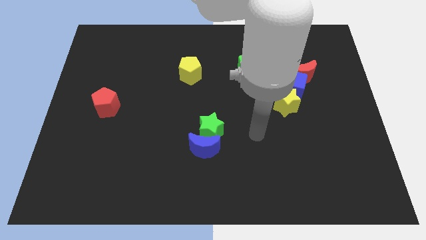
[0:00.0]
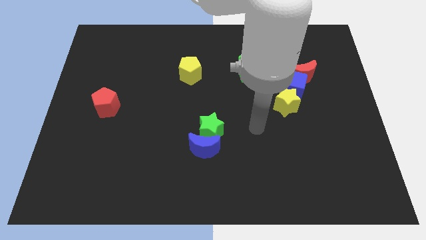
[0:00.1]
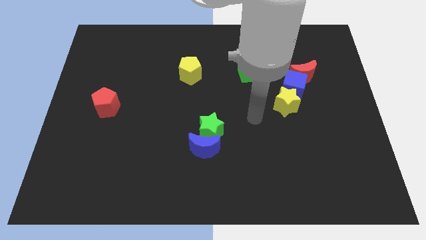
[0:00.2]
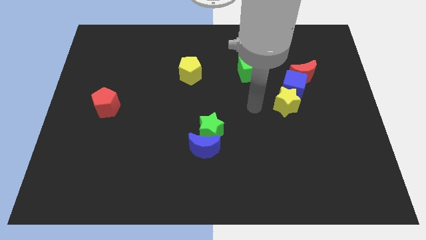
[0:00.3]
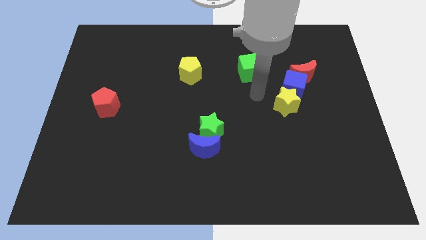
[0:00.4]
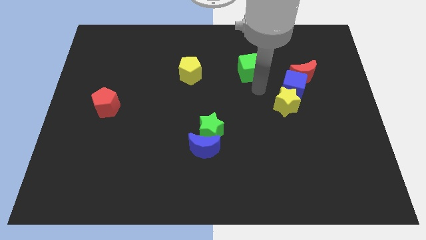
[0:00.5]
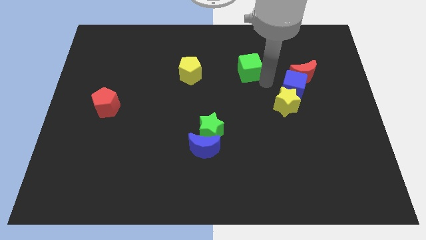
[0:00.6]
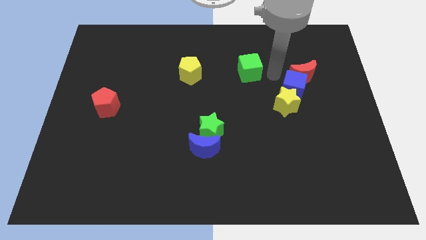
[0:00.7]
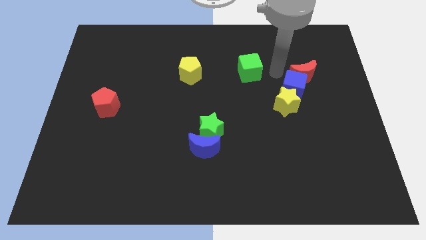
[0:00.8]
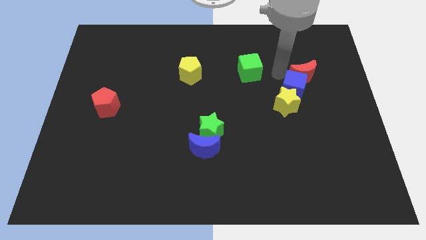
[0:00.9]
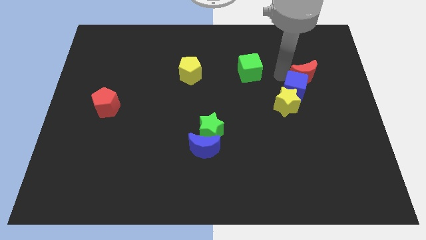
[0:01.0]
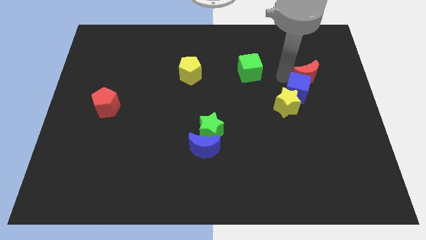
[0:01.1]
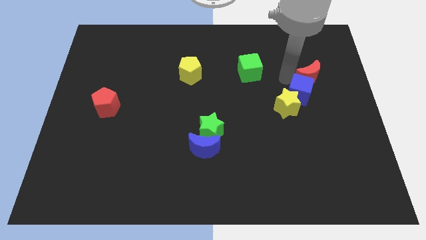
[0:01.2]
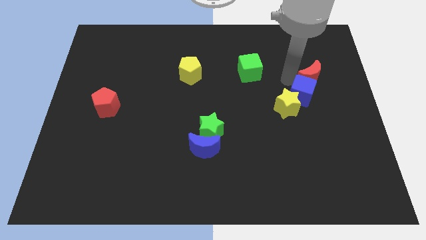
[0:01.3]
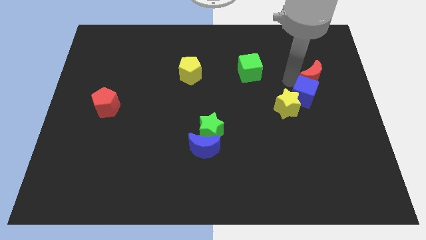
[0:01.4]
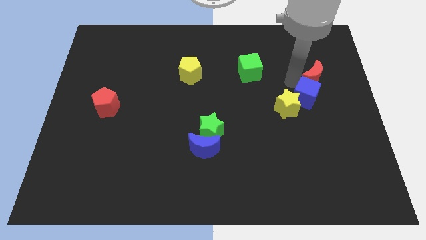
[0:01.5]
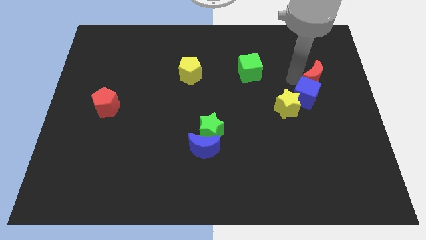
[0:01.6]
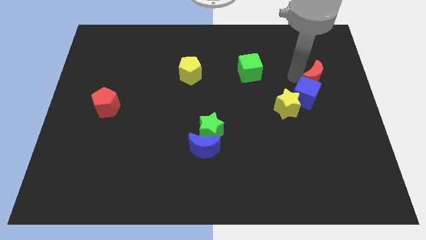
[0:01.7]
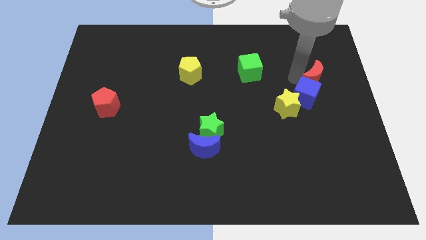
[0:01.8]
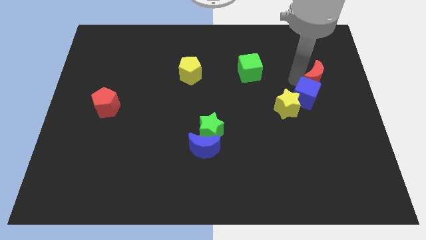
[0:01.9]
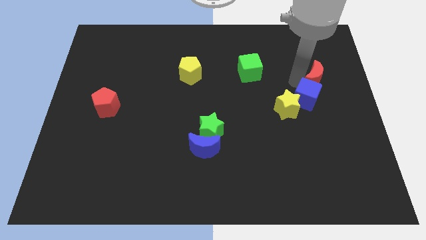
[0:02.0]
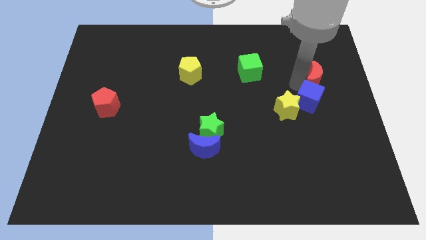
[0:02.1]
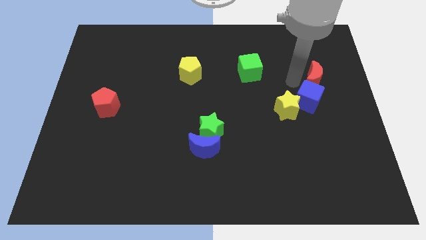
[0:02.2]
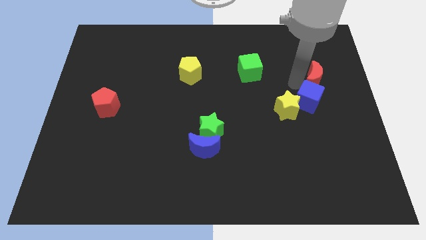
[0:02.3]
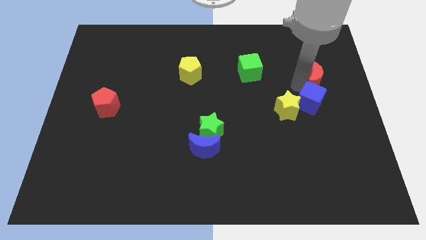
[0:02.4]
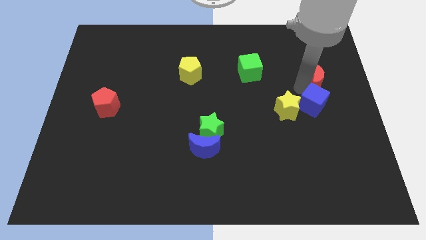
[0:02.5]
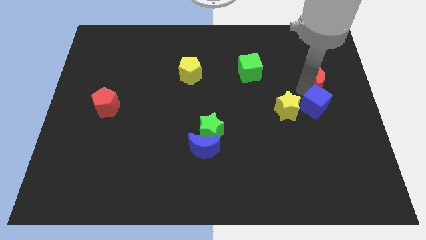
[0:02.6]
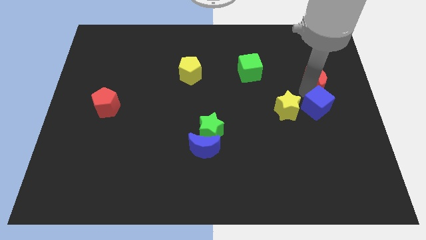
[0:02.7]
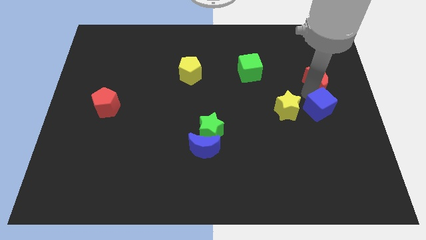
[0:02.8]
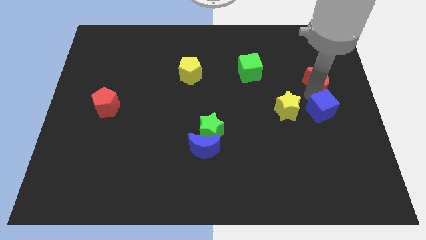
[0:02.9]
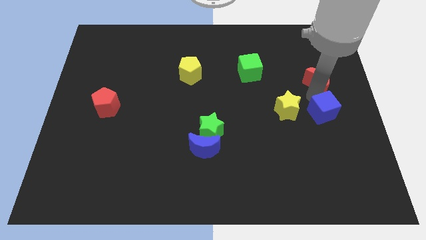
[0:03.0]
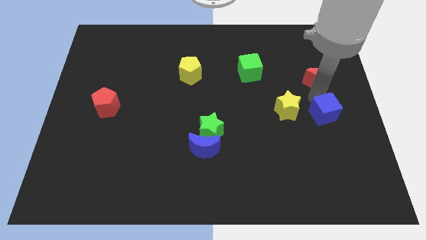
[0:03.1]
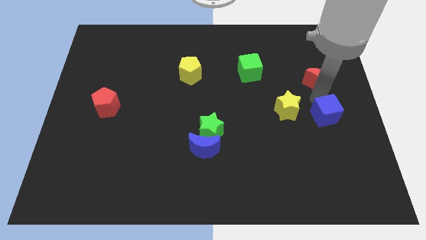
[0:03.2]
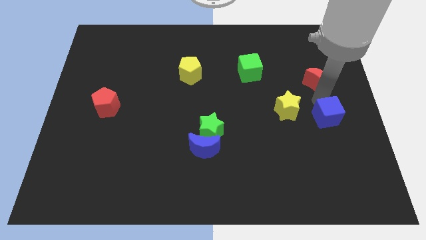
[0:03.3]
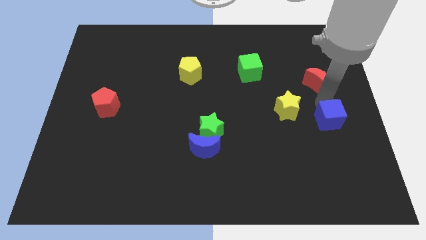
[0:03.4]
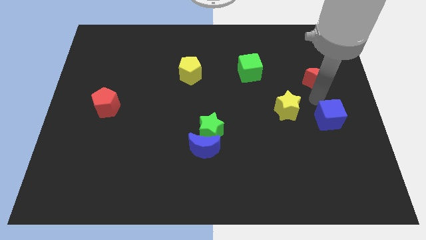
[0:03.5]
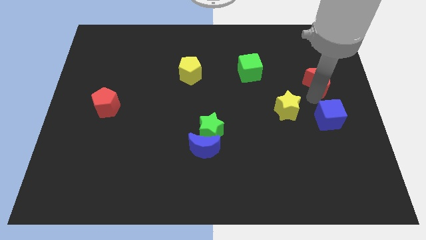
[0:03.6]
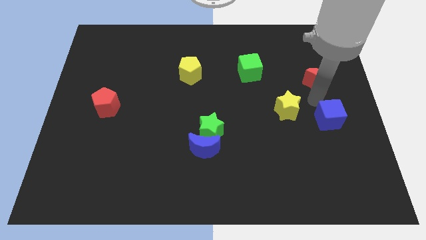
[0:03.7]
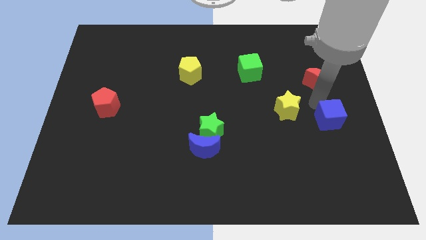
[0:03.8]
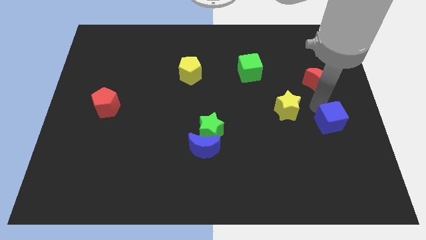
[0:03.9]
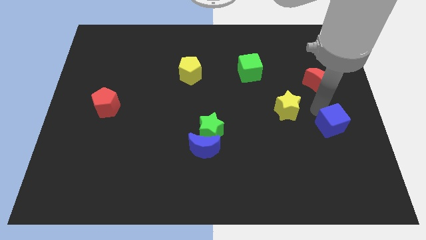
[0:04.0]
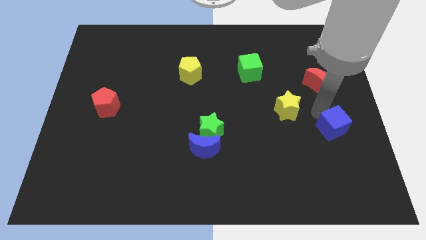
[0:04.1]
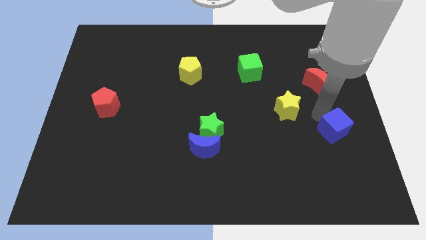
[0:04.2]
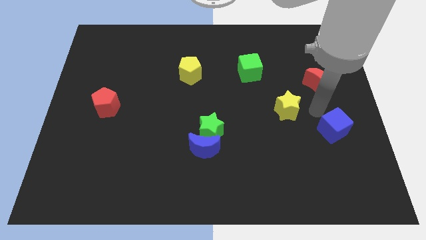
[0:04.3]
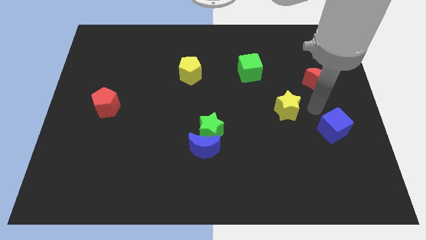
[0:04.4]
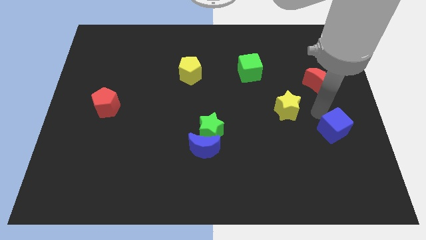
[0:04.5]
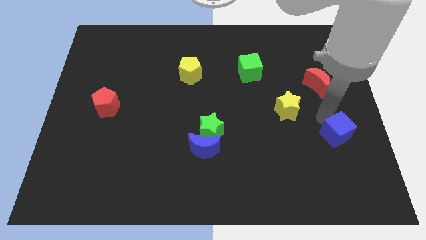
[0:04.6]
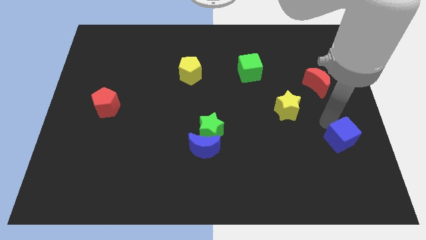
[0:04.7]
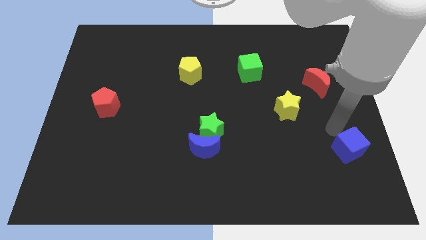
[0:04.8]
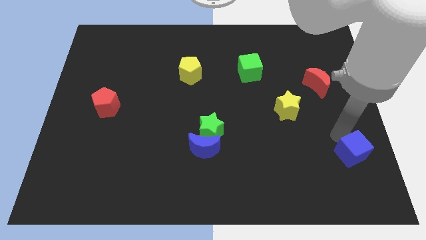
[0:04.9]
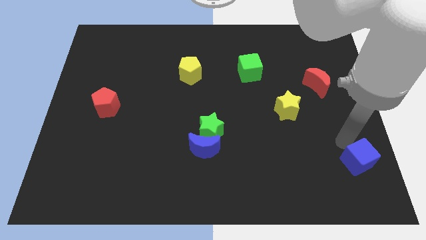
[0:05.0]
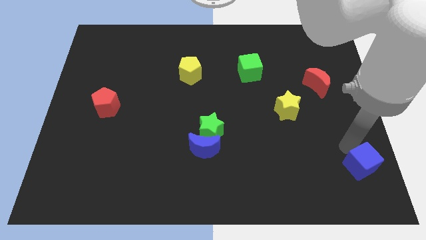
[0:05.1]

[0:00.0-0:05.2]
put the blue cube to the bottom right of the board

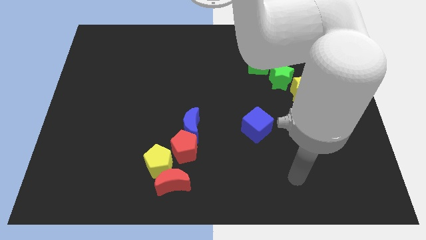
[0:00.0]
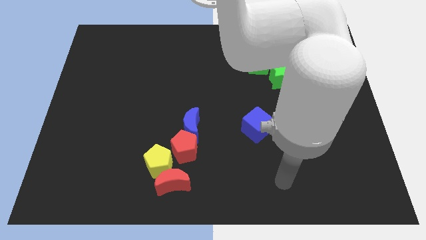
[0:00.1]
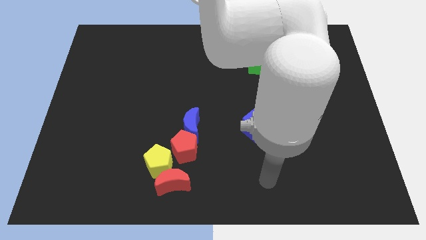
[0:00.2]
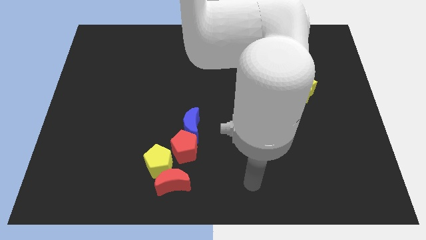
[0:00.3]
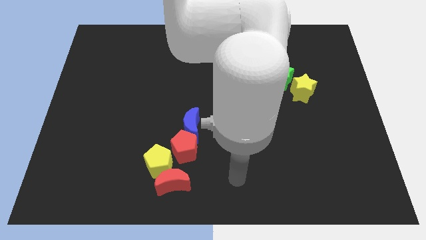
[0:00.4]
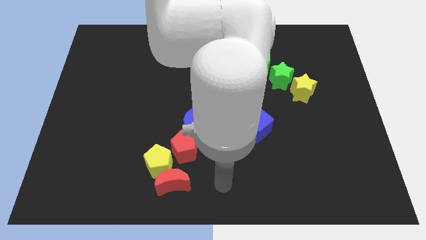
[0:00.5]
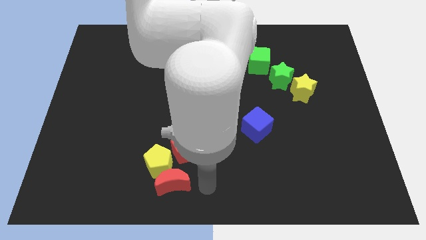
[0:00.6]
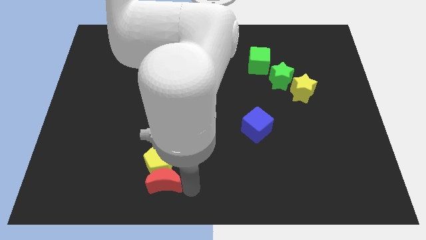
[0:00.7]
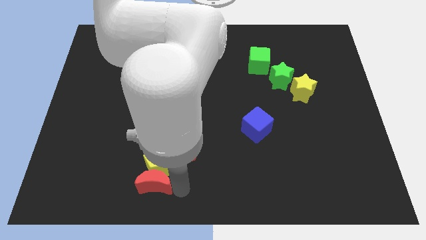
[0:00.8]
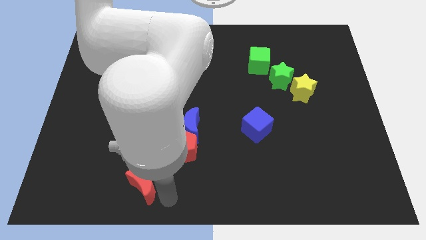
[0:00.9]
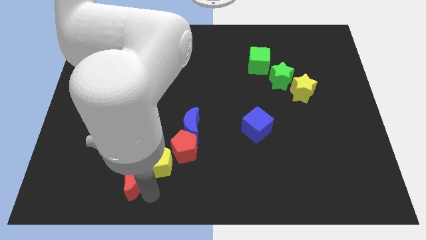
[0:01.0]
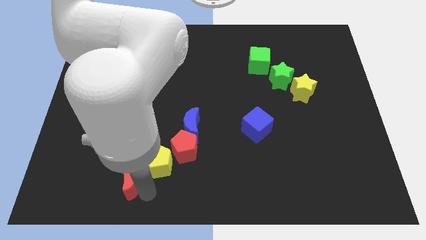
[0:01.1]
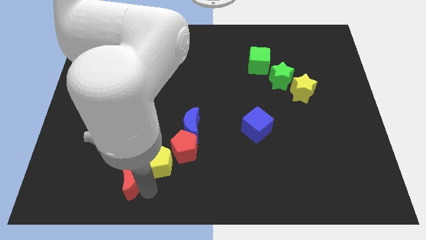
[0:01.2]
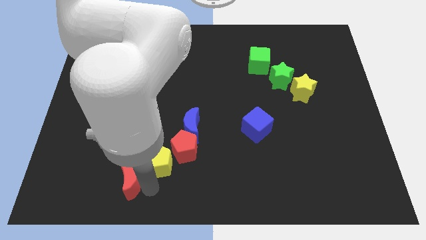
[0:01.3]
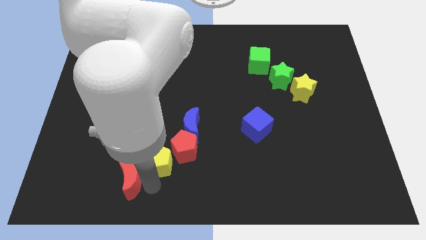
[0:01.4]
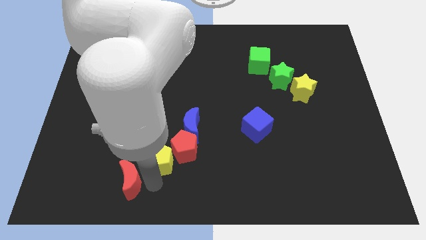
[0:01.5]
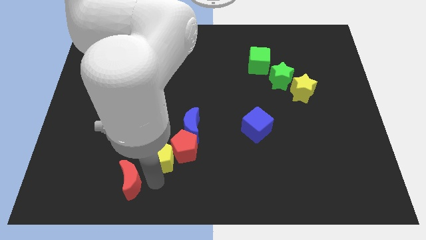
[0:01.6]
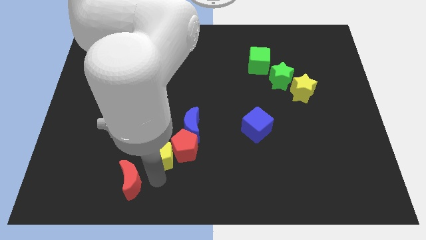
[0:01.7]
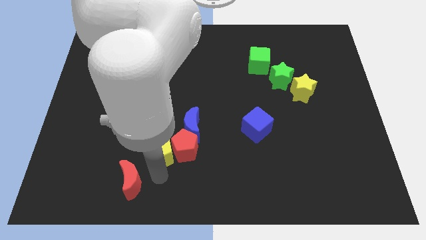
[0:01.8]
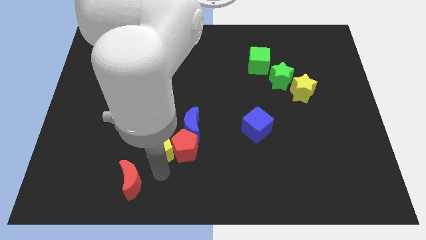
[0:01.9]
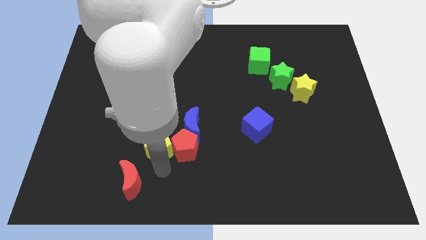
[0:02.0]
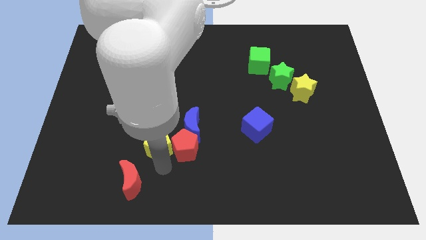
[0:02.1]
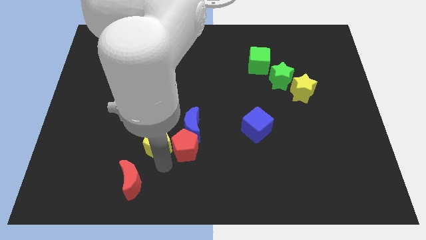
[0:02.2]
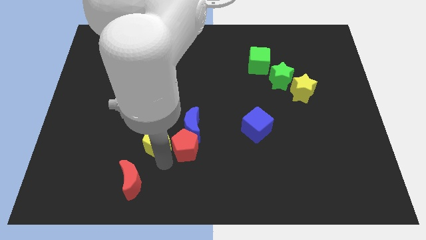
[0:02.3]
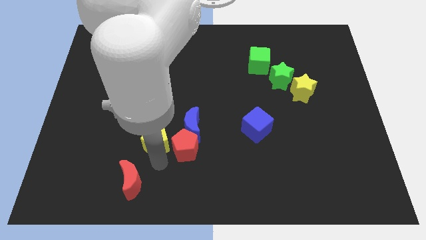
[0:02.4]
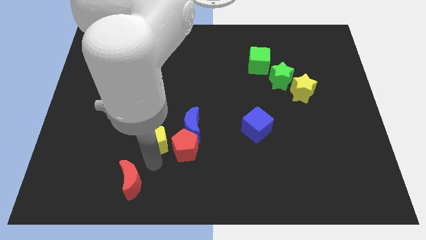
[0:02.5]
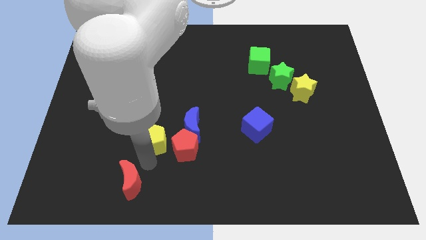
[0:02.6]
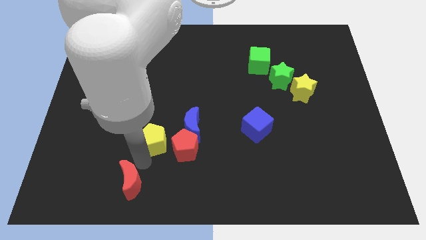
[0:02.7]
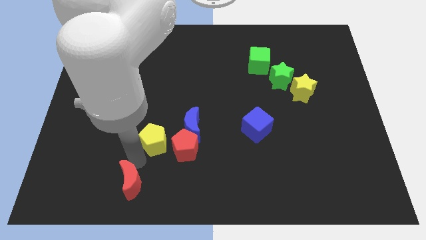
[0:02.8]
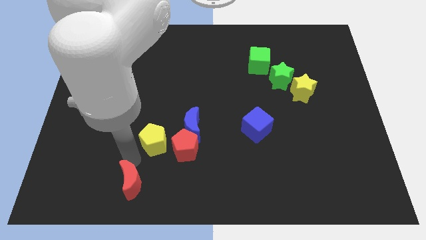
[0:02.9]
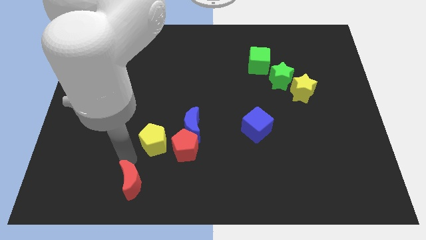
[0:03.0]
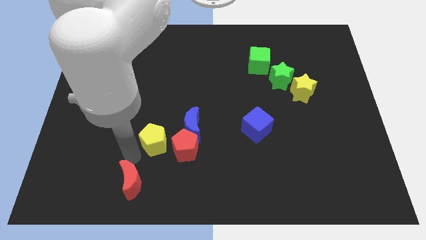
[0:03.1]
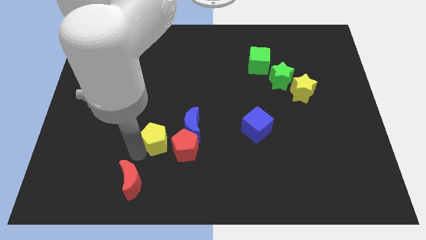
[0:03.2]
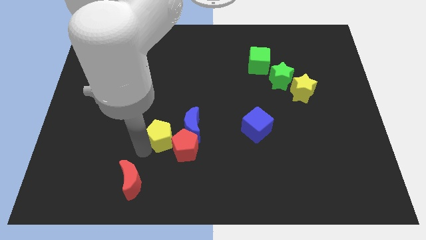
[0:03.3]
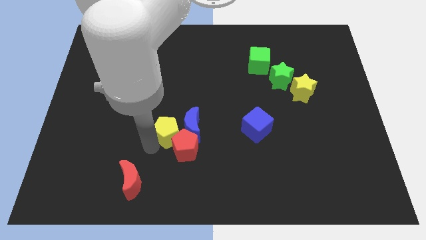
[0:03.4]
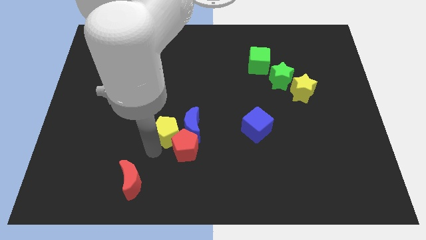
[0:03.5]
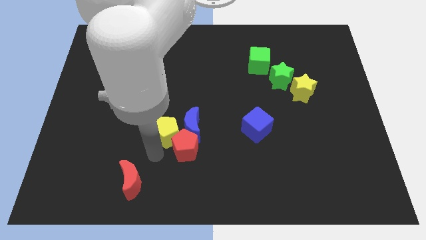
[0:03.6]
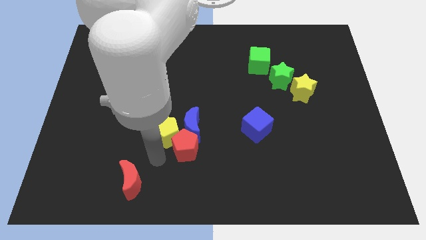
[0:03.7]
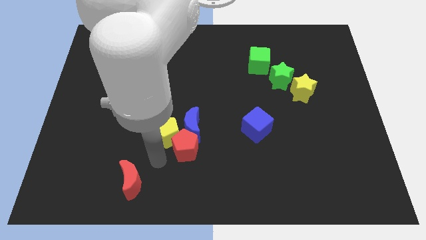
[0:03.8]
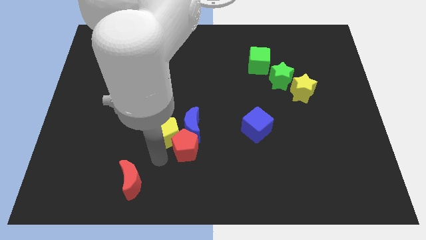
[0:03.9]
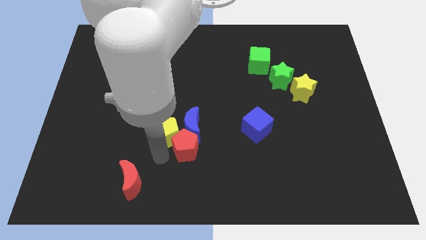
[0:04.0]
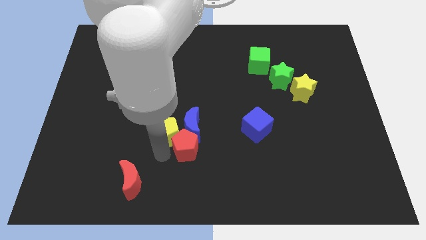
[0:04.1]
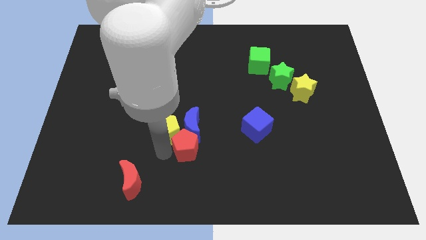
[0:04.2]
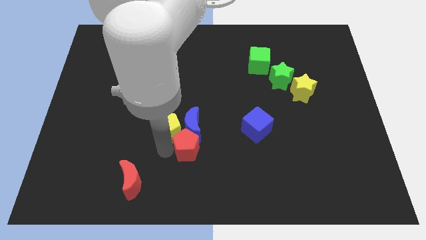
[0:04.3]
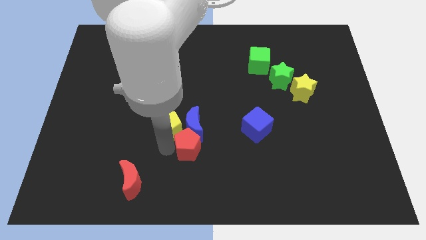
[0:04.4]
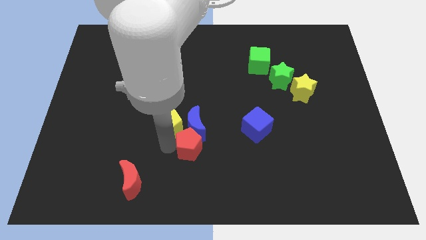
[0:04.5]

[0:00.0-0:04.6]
slide the yellow pentagon to the center of the board
